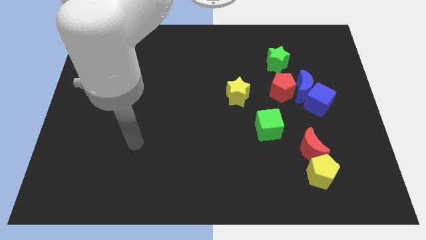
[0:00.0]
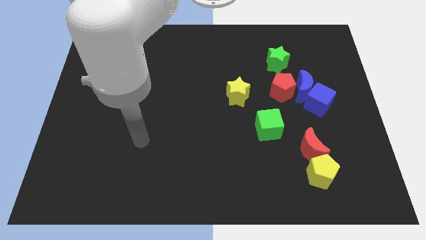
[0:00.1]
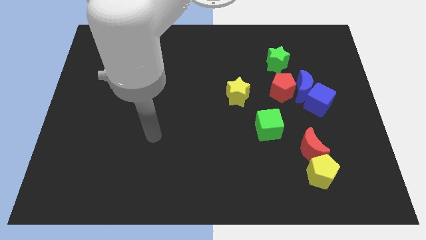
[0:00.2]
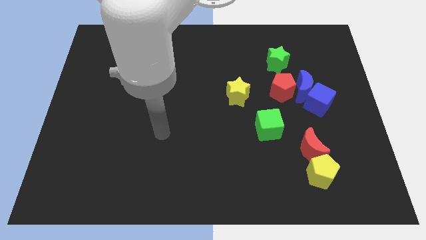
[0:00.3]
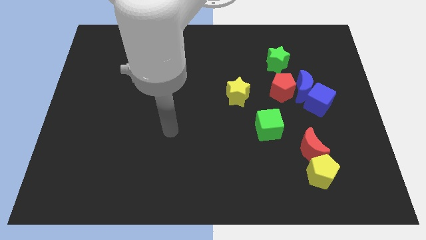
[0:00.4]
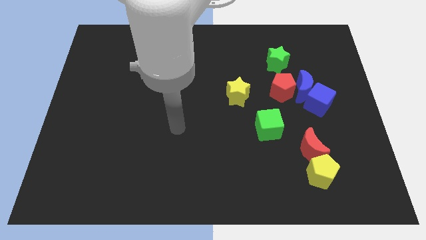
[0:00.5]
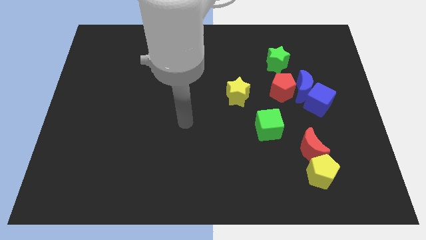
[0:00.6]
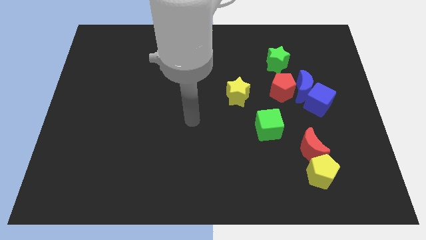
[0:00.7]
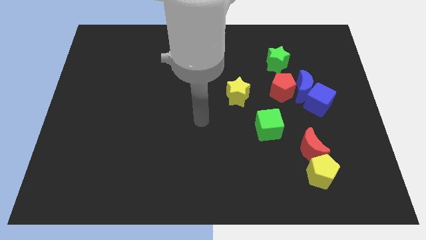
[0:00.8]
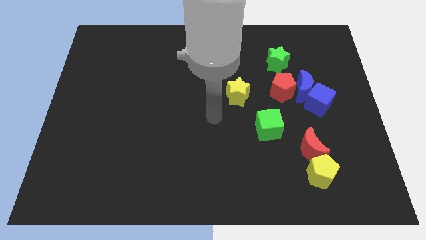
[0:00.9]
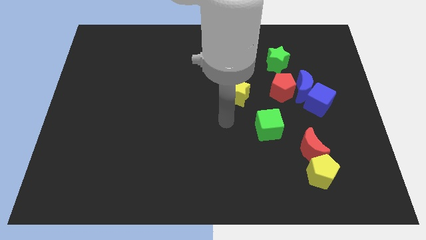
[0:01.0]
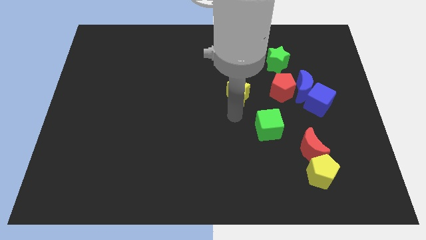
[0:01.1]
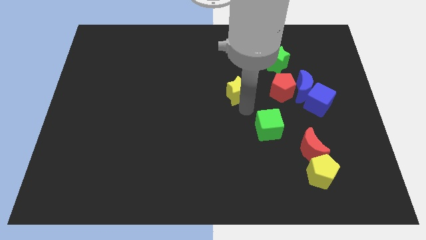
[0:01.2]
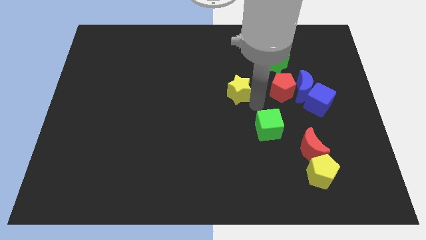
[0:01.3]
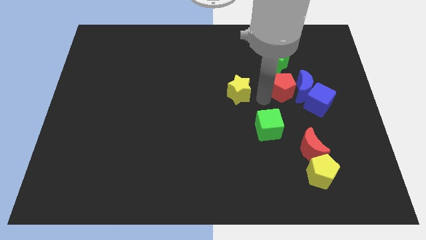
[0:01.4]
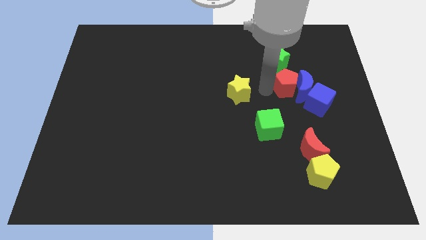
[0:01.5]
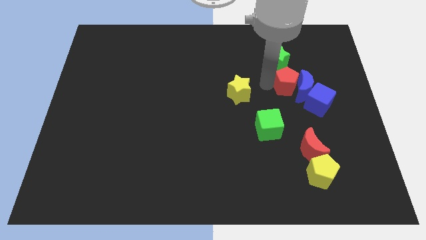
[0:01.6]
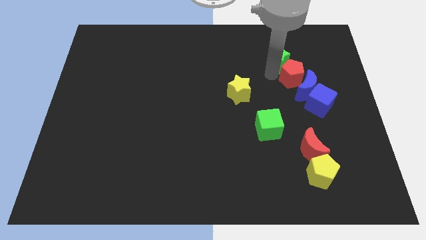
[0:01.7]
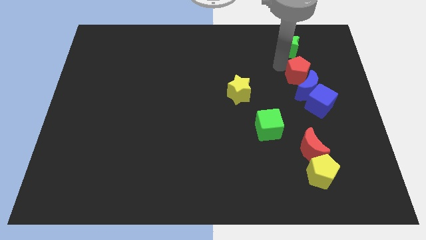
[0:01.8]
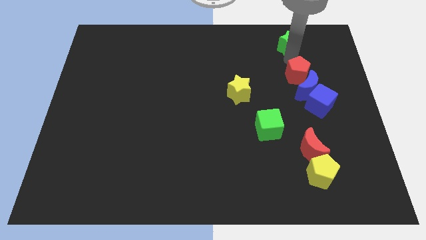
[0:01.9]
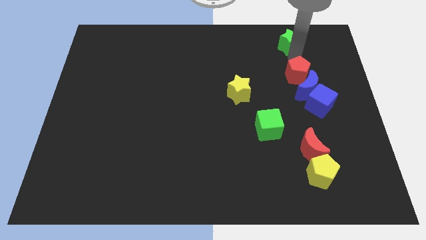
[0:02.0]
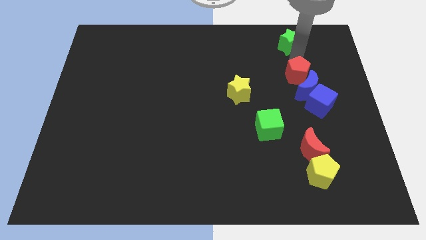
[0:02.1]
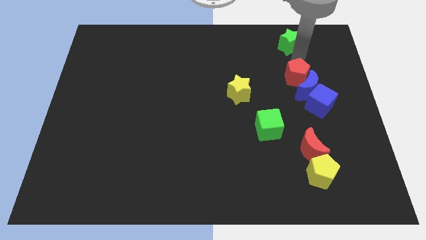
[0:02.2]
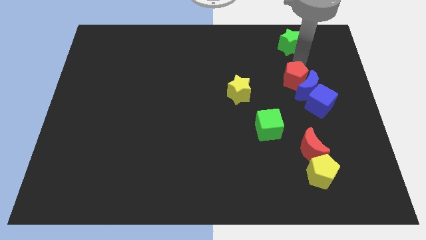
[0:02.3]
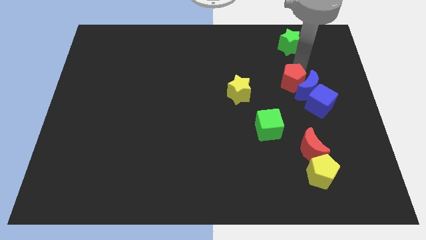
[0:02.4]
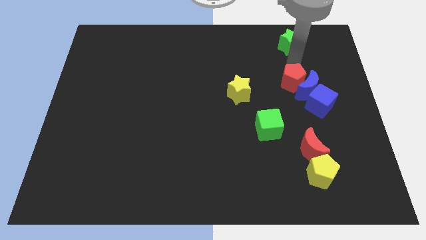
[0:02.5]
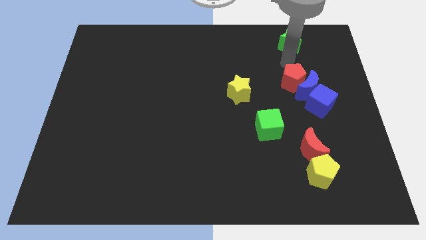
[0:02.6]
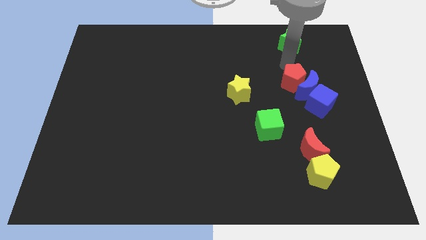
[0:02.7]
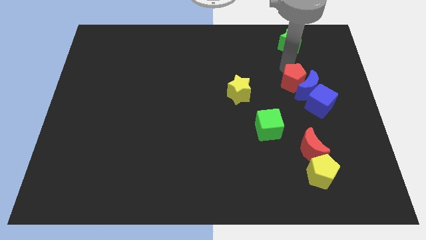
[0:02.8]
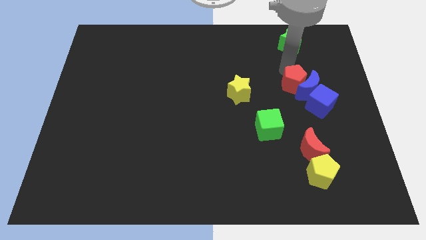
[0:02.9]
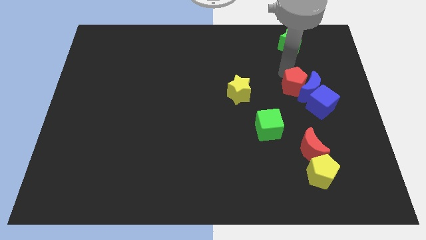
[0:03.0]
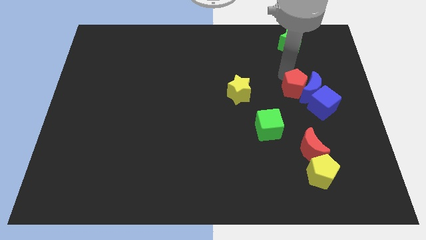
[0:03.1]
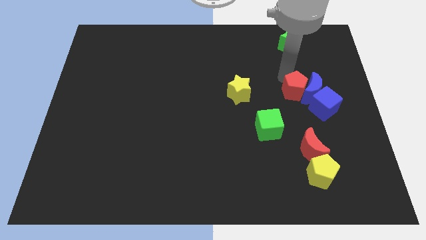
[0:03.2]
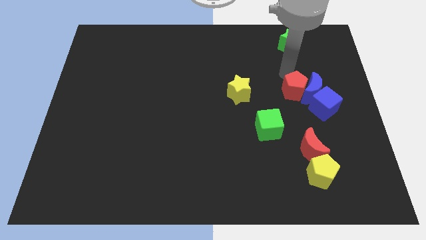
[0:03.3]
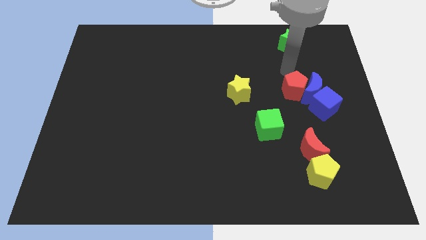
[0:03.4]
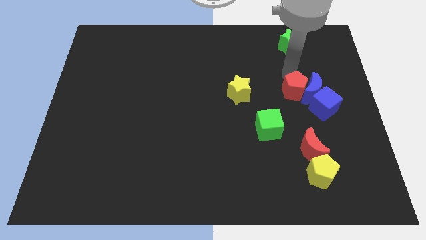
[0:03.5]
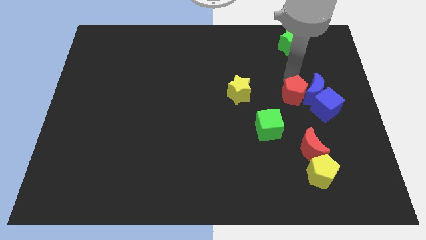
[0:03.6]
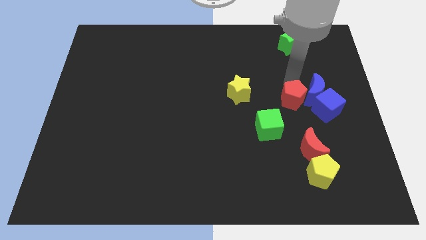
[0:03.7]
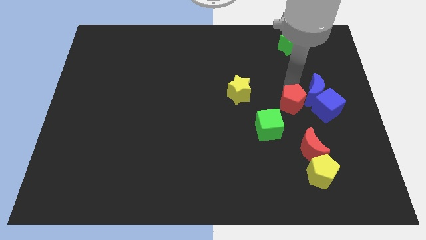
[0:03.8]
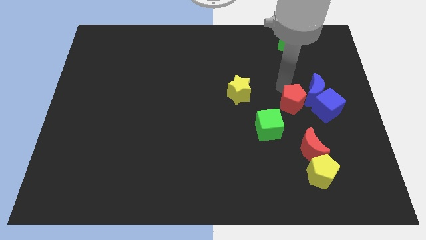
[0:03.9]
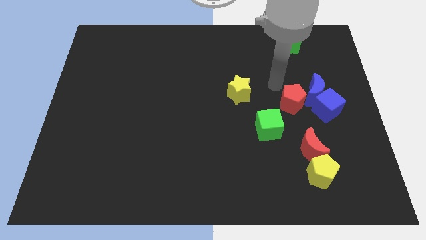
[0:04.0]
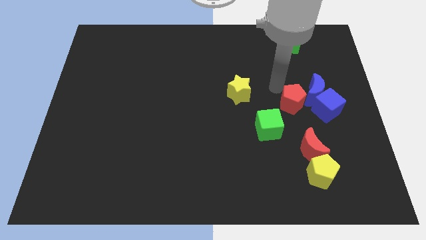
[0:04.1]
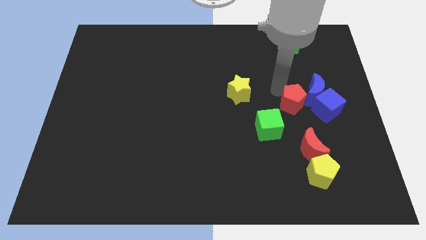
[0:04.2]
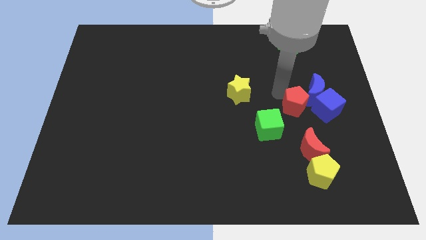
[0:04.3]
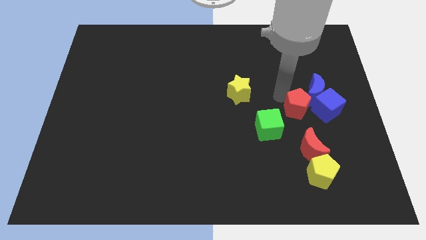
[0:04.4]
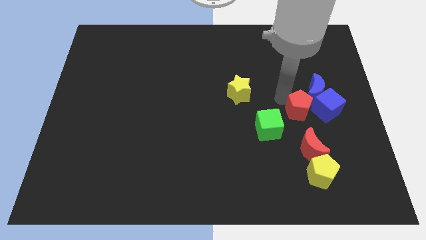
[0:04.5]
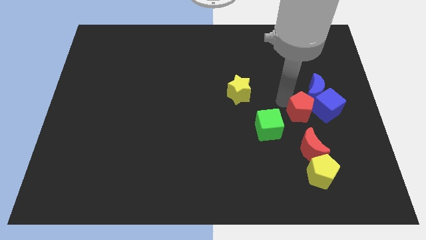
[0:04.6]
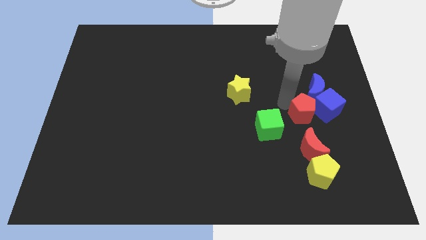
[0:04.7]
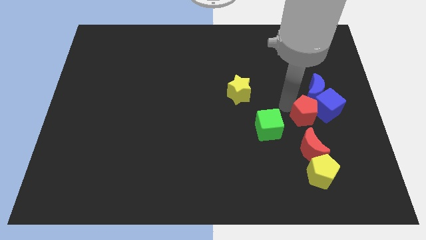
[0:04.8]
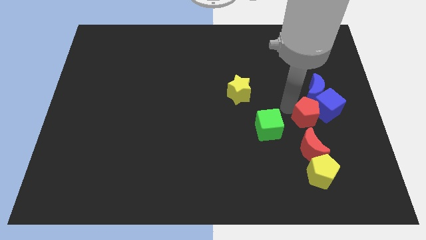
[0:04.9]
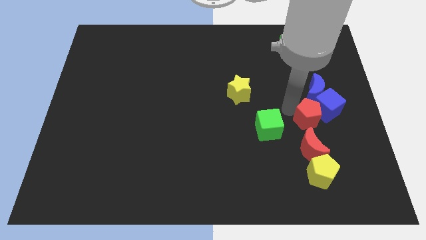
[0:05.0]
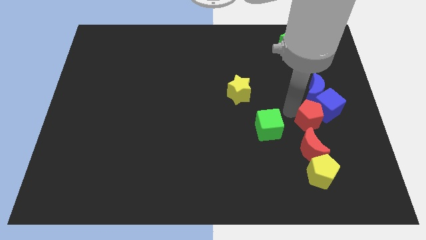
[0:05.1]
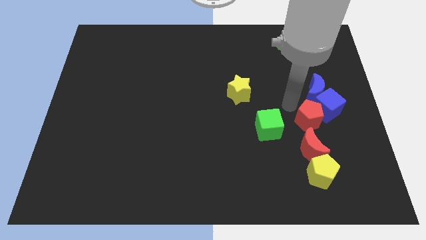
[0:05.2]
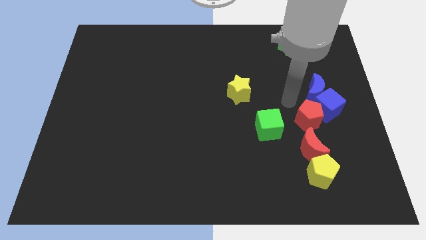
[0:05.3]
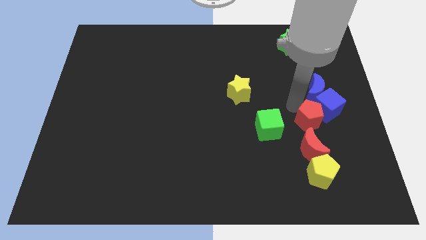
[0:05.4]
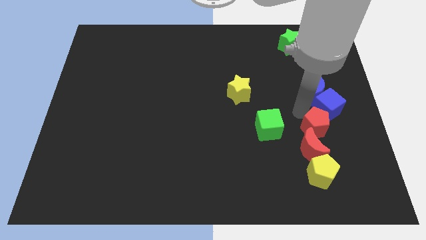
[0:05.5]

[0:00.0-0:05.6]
put the red pentagon to the bottom side of the blue cube

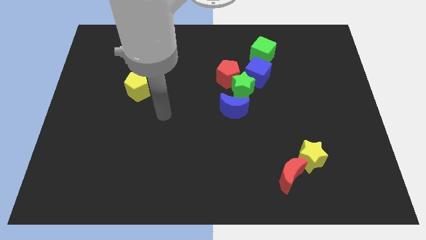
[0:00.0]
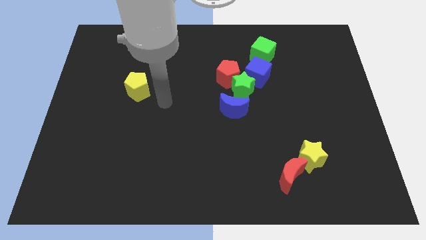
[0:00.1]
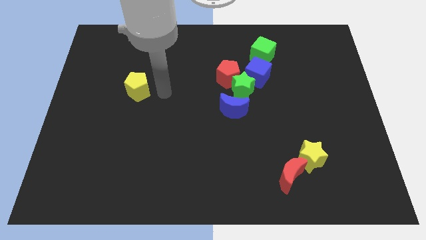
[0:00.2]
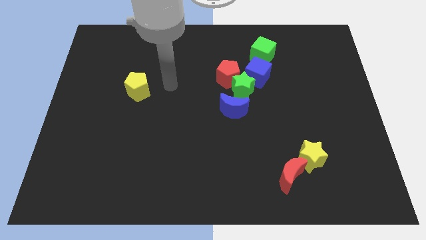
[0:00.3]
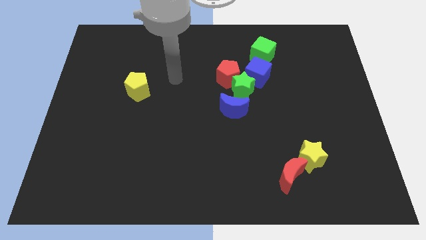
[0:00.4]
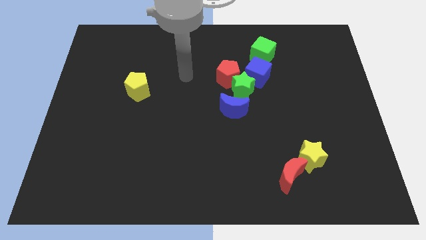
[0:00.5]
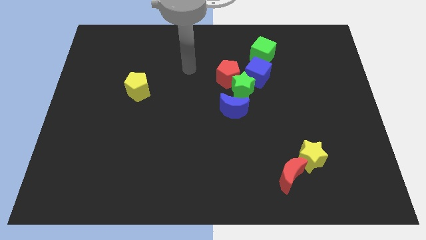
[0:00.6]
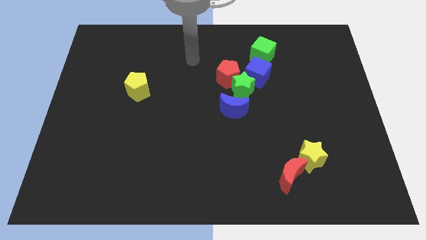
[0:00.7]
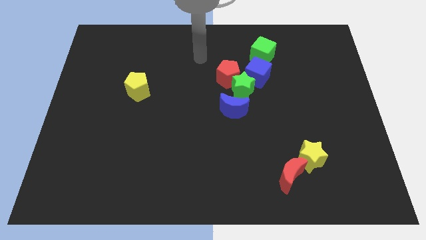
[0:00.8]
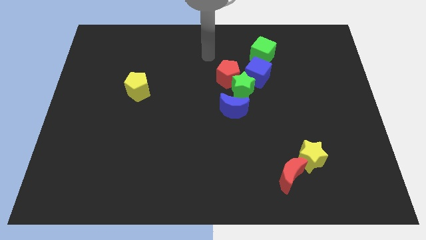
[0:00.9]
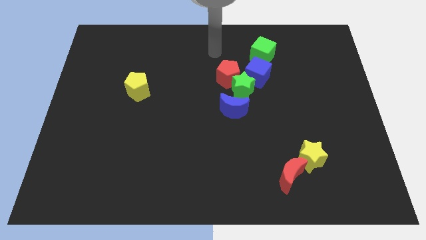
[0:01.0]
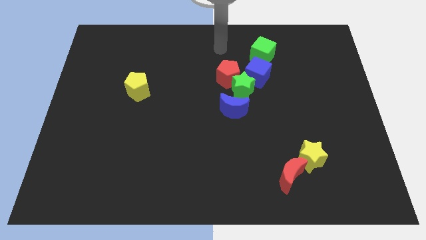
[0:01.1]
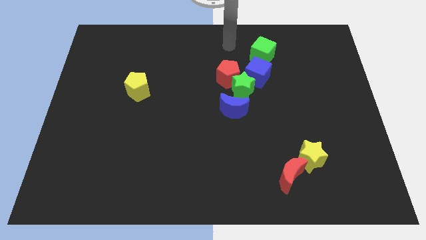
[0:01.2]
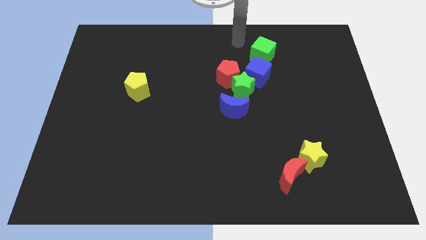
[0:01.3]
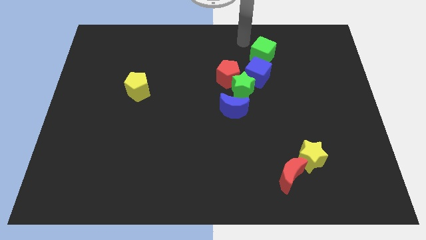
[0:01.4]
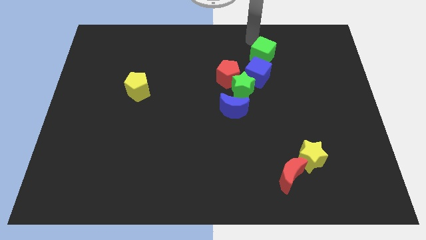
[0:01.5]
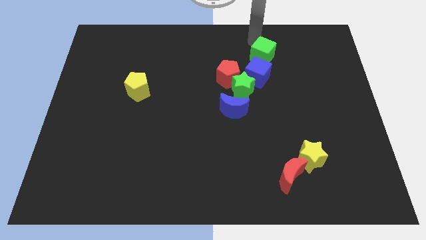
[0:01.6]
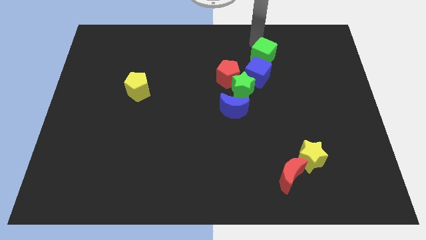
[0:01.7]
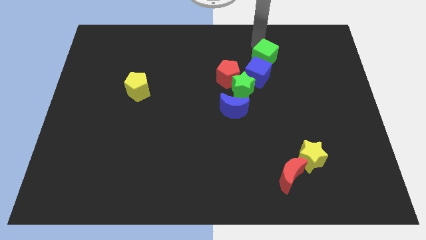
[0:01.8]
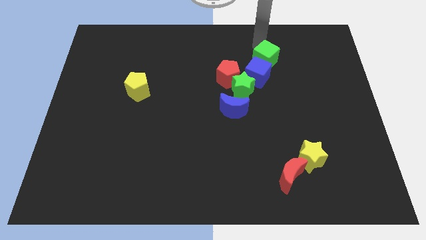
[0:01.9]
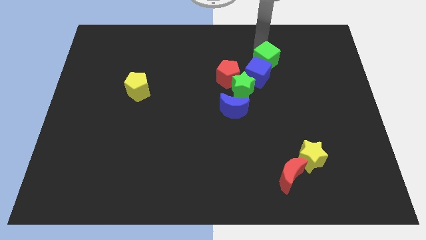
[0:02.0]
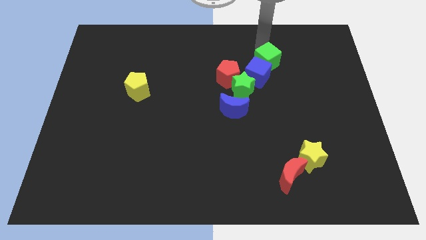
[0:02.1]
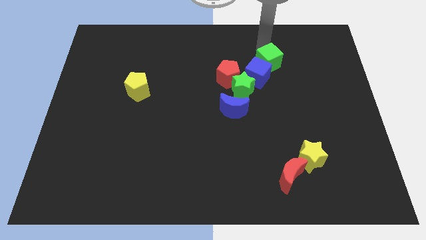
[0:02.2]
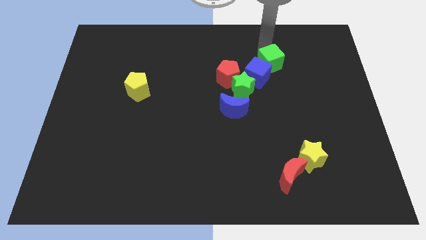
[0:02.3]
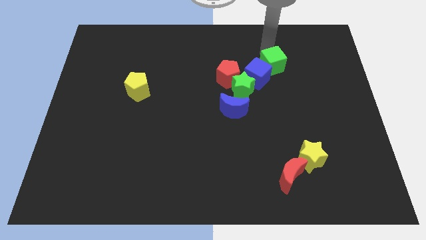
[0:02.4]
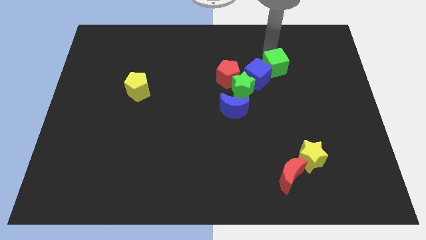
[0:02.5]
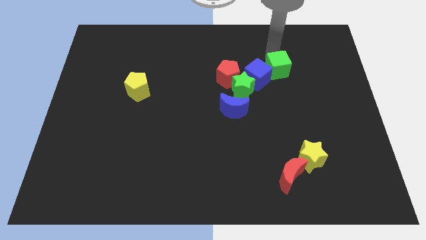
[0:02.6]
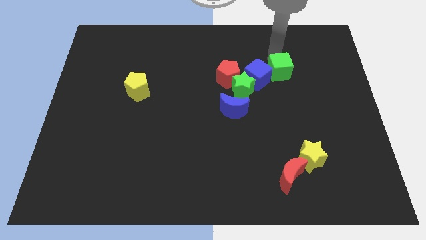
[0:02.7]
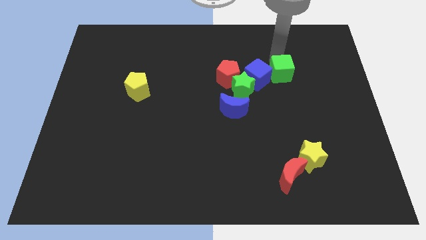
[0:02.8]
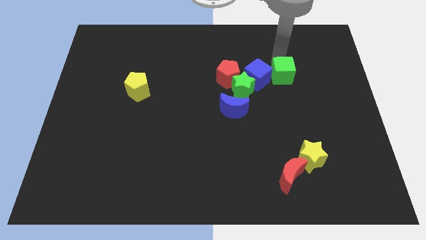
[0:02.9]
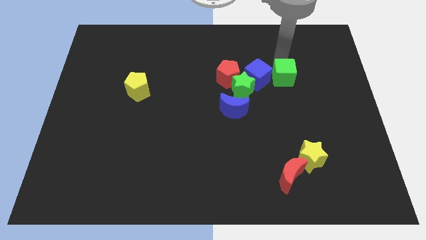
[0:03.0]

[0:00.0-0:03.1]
push the green cube right of the green star
